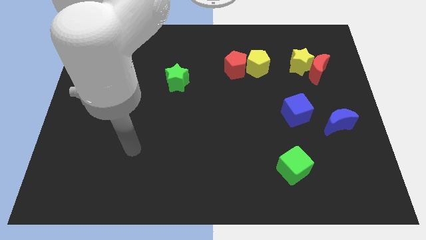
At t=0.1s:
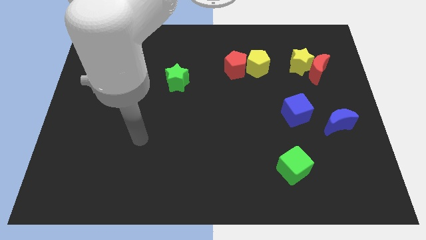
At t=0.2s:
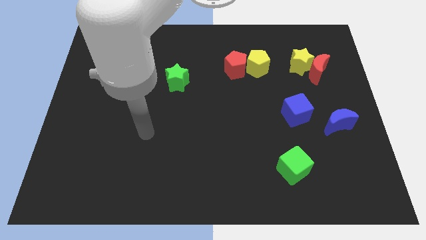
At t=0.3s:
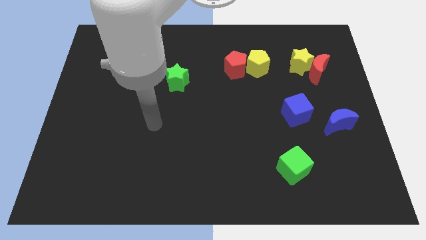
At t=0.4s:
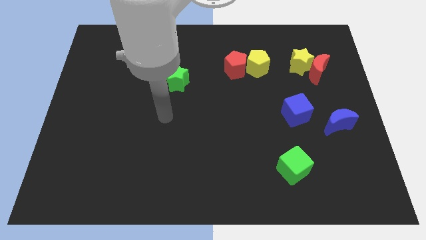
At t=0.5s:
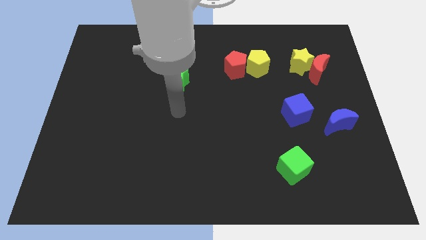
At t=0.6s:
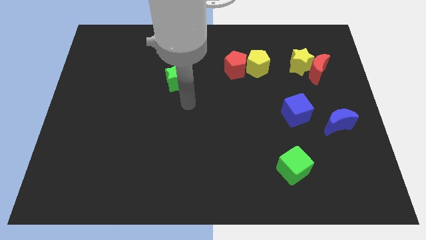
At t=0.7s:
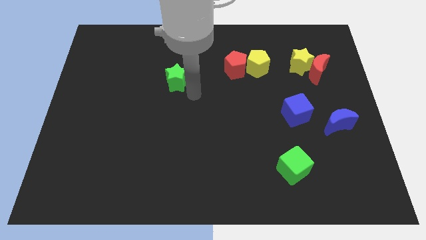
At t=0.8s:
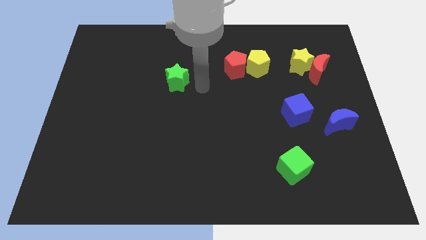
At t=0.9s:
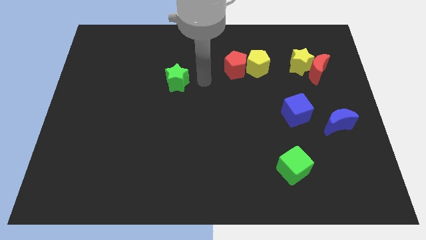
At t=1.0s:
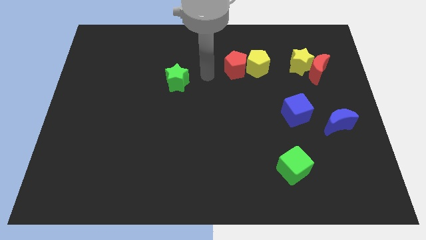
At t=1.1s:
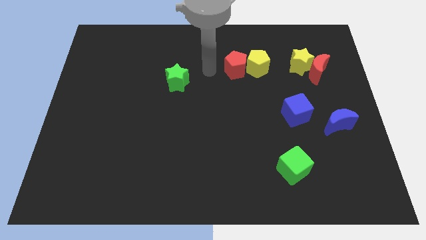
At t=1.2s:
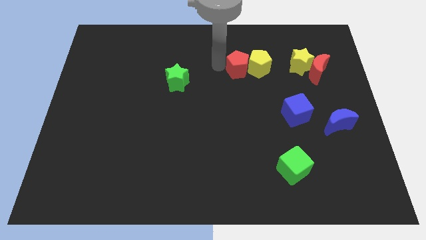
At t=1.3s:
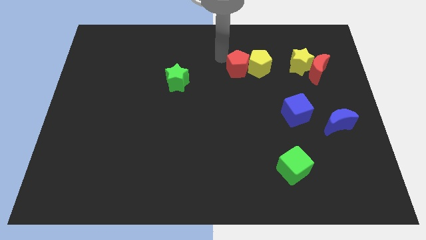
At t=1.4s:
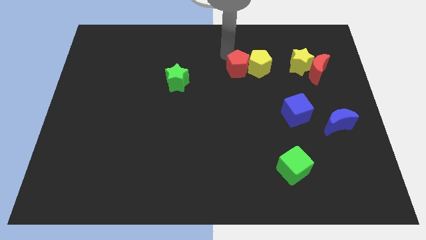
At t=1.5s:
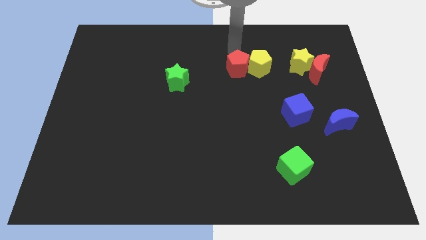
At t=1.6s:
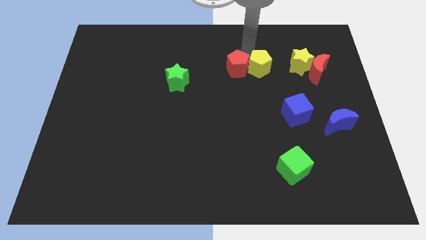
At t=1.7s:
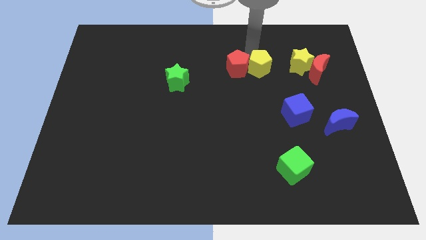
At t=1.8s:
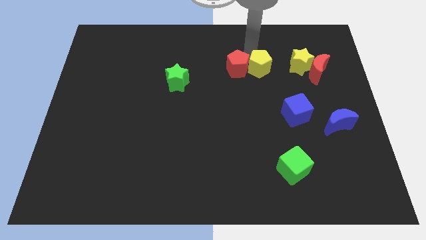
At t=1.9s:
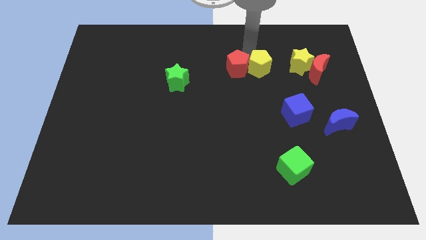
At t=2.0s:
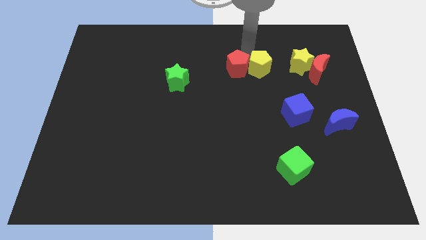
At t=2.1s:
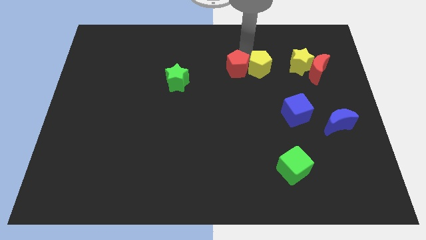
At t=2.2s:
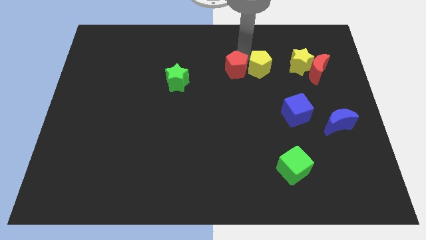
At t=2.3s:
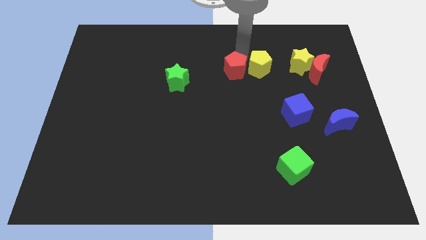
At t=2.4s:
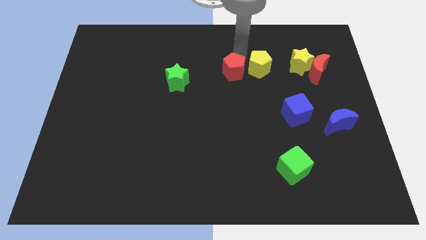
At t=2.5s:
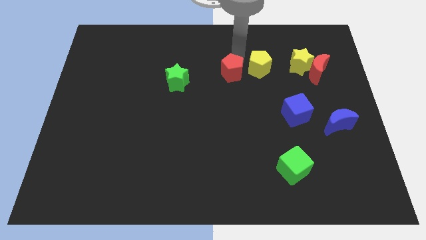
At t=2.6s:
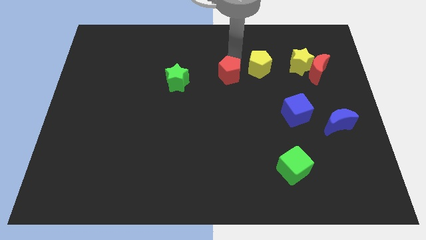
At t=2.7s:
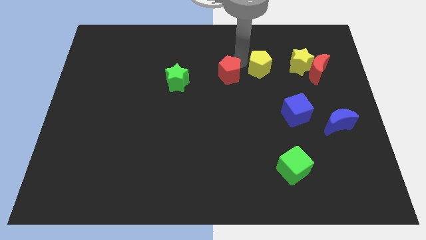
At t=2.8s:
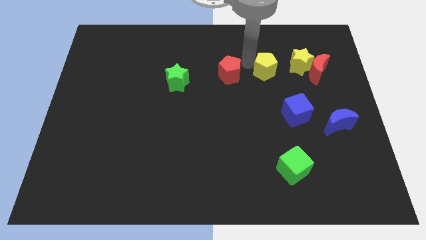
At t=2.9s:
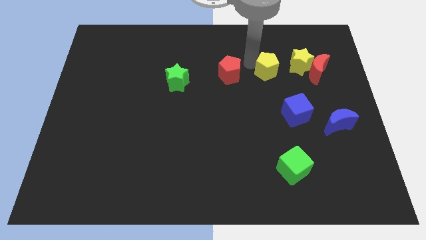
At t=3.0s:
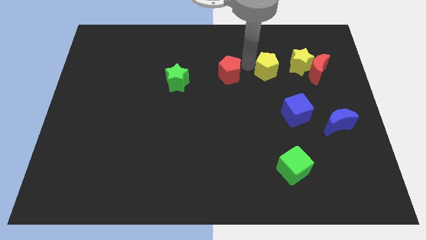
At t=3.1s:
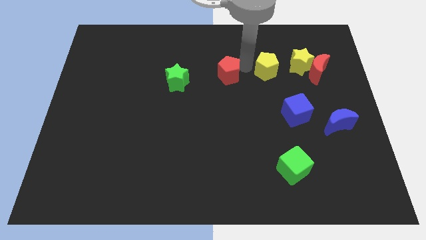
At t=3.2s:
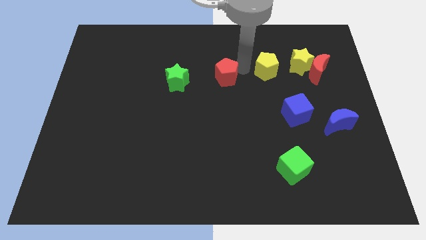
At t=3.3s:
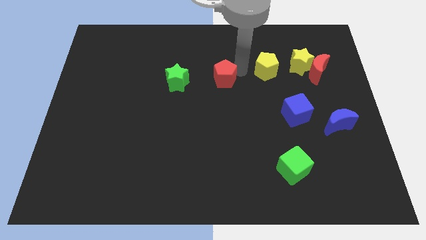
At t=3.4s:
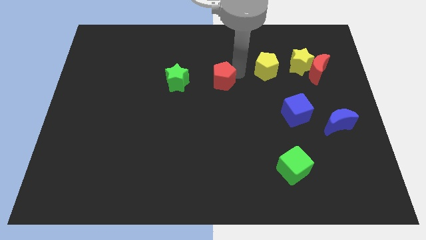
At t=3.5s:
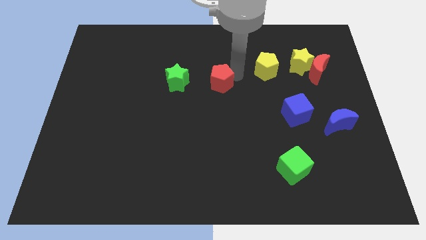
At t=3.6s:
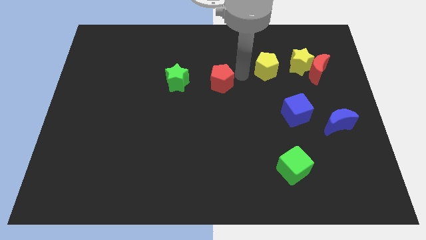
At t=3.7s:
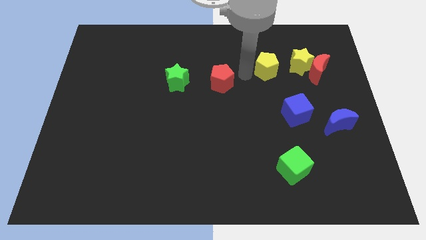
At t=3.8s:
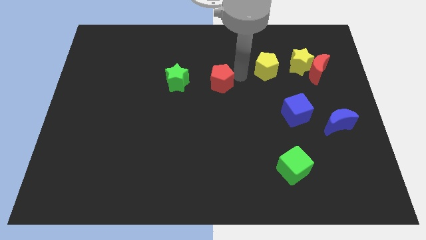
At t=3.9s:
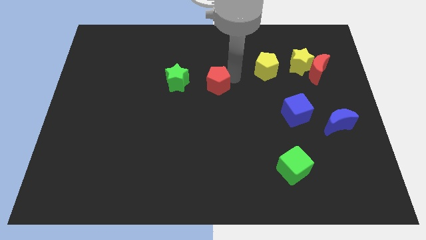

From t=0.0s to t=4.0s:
push the red pentagon a little bit downwards and then left

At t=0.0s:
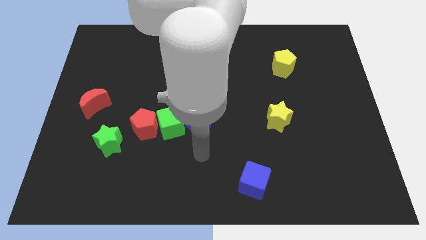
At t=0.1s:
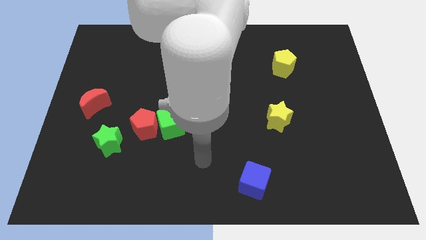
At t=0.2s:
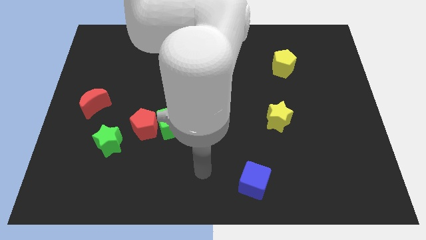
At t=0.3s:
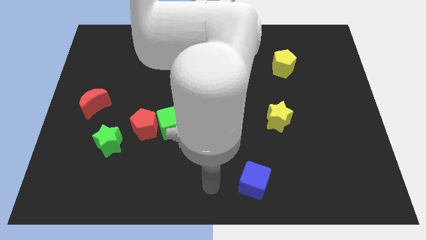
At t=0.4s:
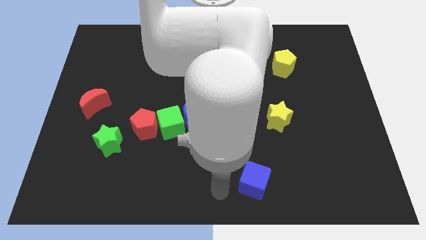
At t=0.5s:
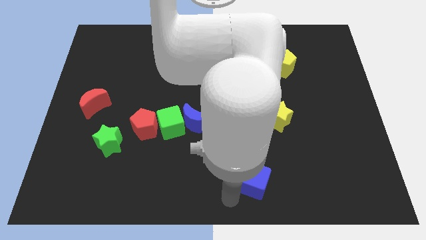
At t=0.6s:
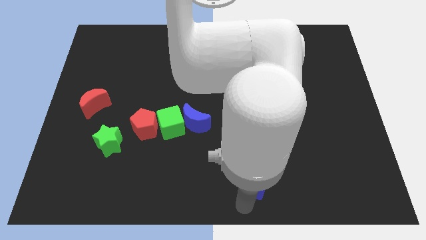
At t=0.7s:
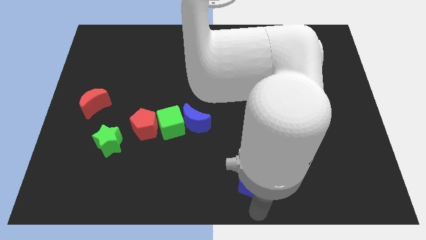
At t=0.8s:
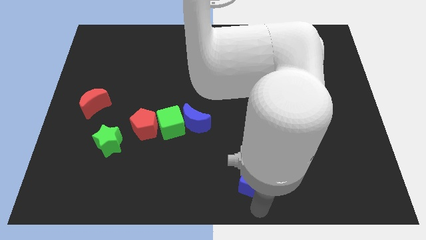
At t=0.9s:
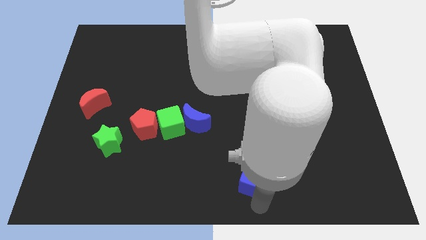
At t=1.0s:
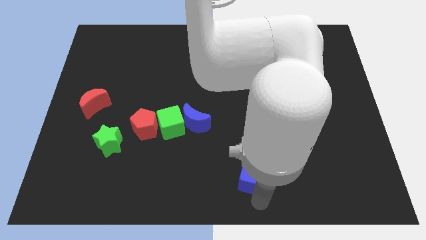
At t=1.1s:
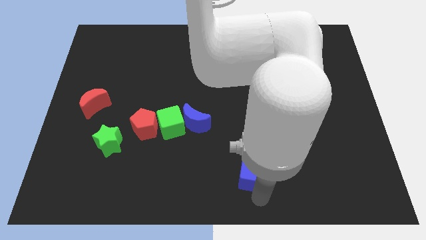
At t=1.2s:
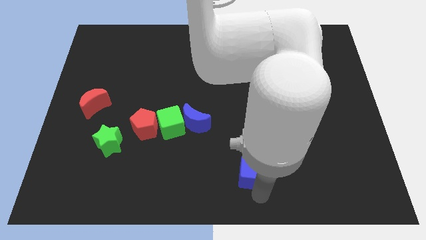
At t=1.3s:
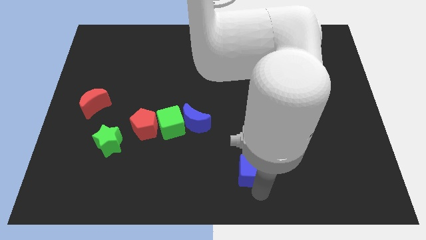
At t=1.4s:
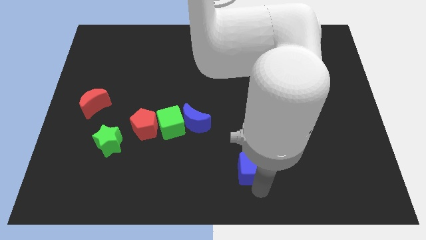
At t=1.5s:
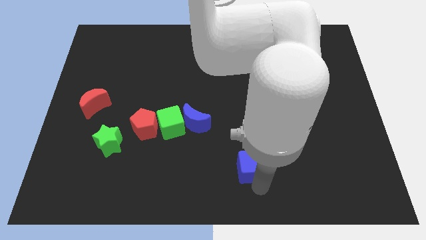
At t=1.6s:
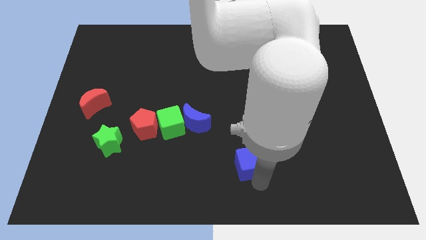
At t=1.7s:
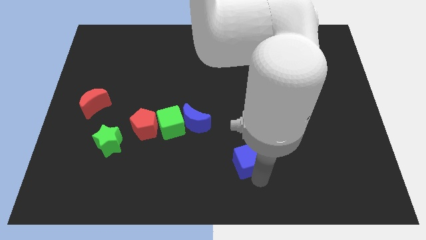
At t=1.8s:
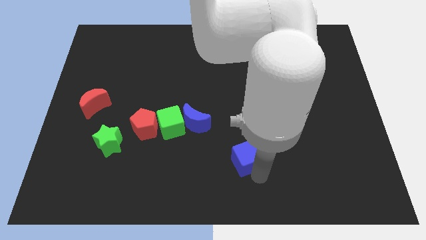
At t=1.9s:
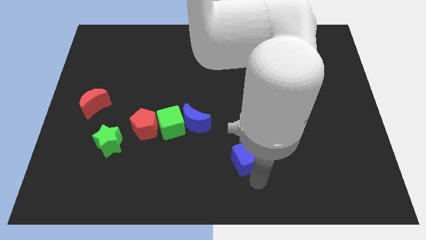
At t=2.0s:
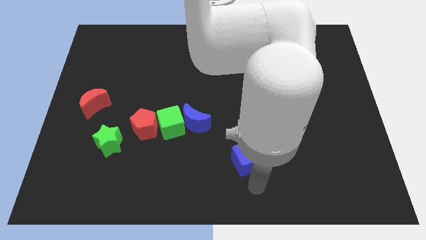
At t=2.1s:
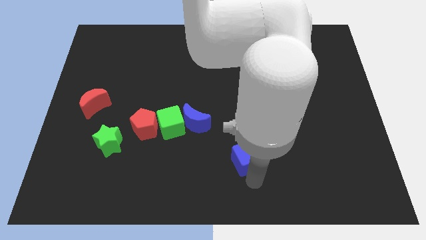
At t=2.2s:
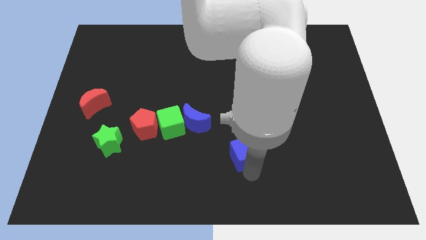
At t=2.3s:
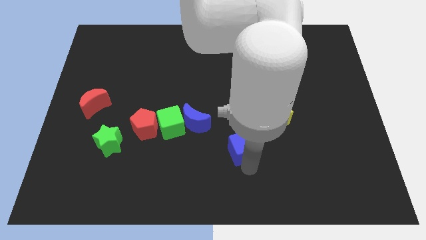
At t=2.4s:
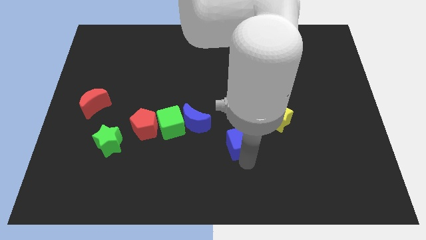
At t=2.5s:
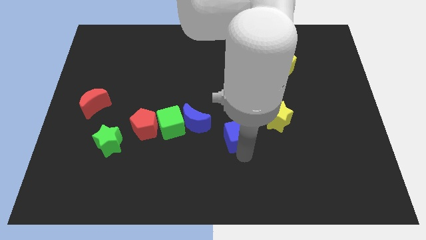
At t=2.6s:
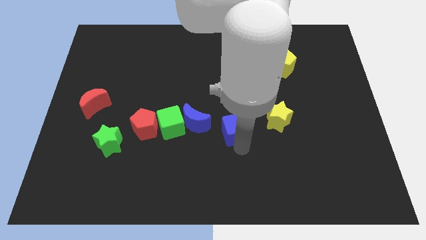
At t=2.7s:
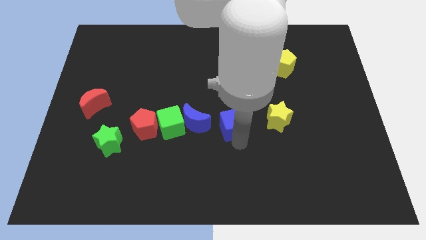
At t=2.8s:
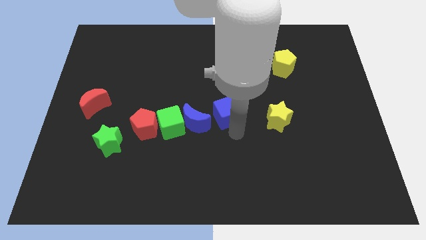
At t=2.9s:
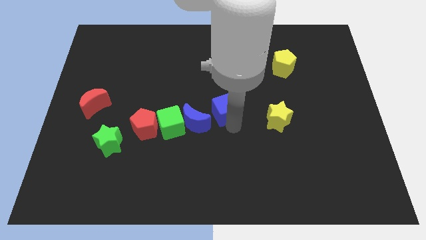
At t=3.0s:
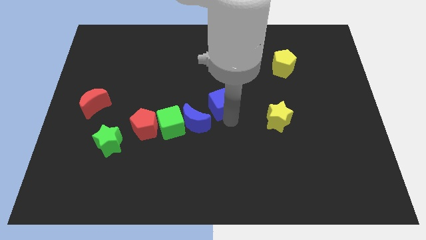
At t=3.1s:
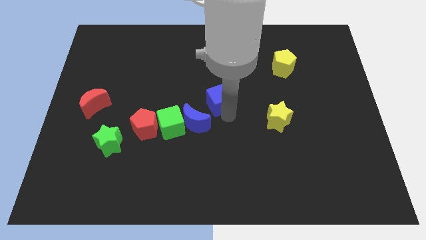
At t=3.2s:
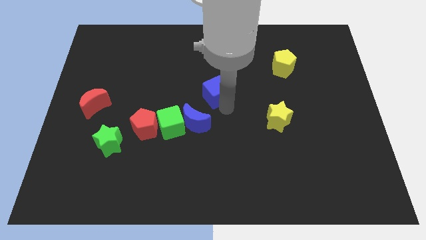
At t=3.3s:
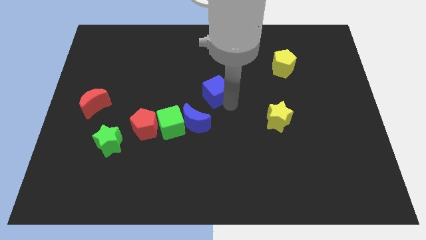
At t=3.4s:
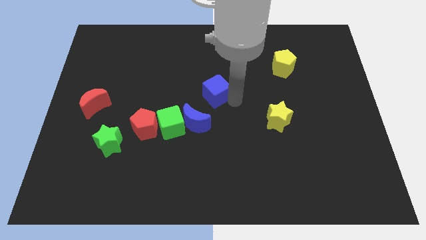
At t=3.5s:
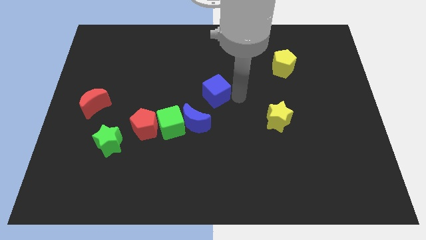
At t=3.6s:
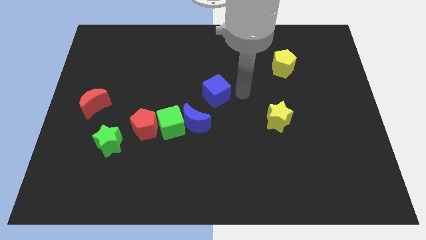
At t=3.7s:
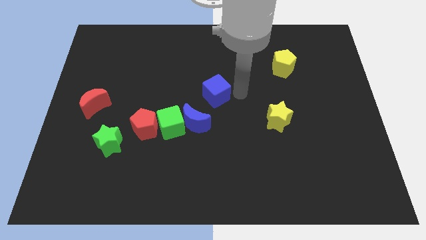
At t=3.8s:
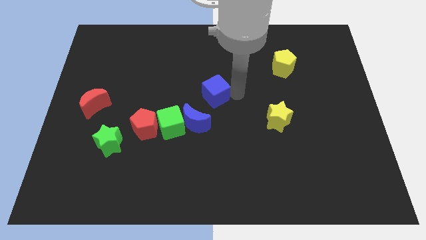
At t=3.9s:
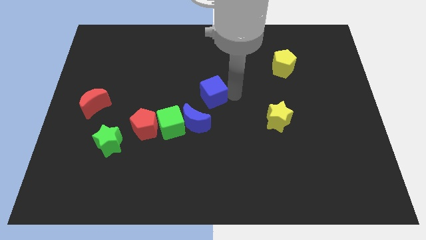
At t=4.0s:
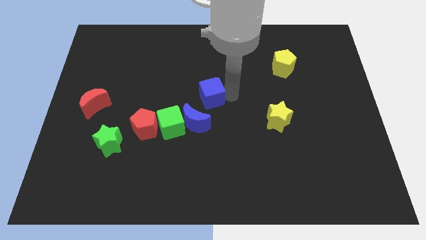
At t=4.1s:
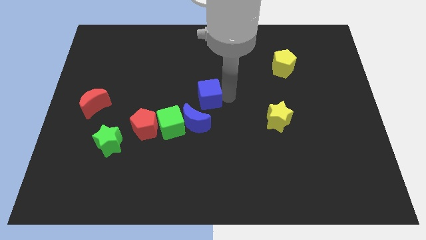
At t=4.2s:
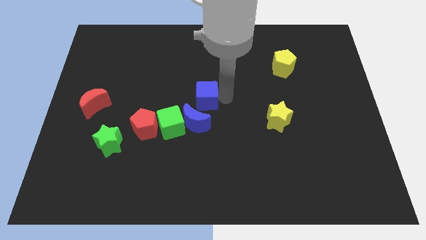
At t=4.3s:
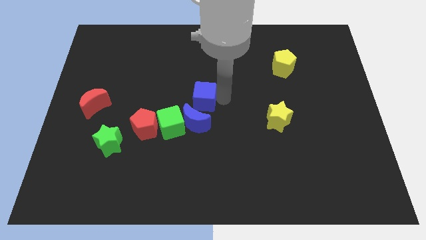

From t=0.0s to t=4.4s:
move the blue cube diagonally up and left
